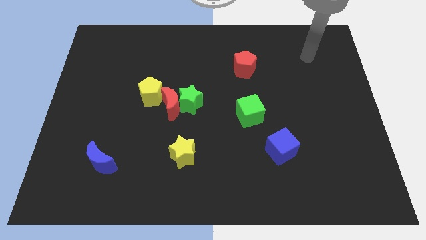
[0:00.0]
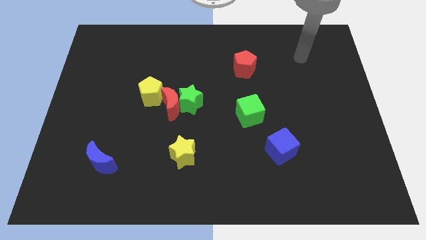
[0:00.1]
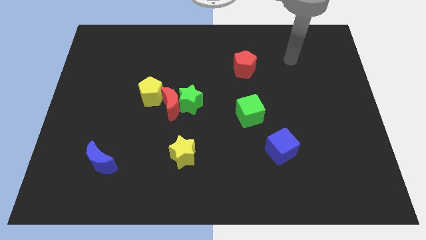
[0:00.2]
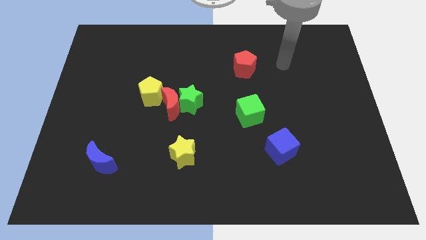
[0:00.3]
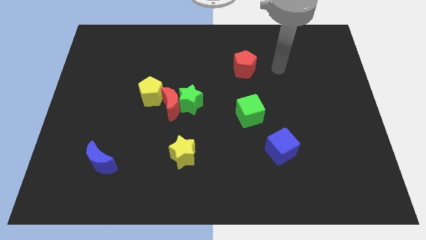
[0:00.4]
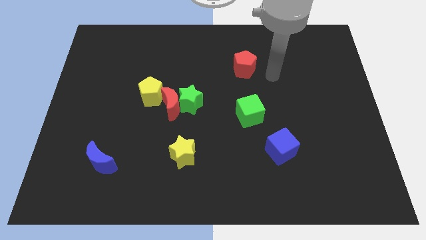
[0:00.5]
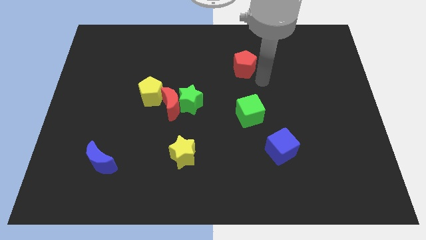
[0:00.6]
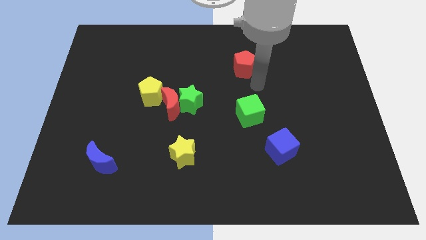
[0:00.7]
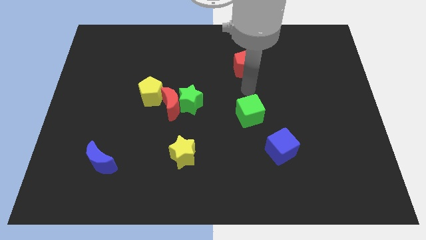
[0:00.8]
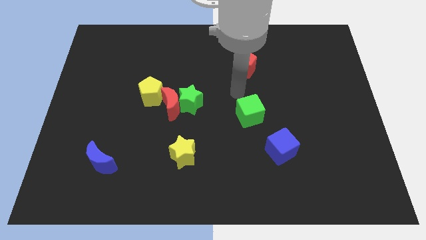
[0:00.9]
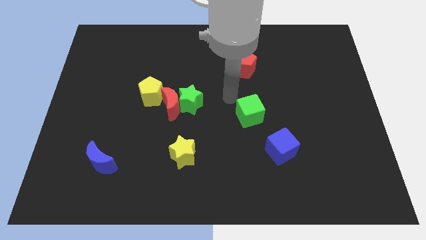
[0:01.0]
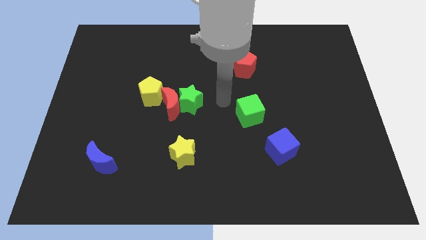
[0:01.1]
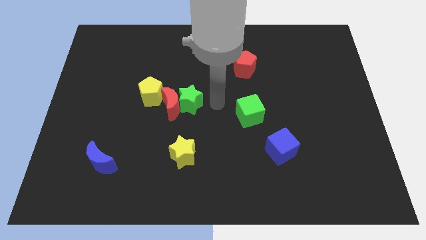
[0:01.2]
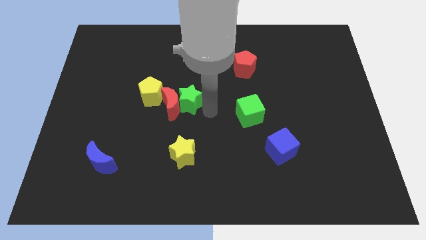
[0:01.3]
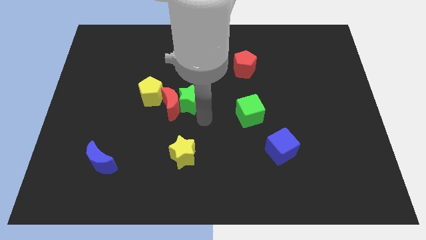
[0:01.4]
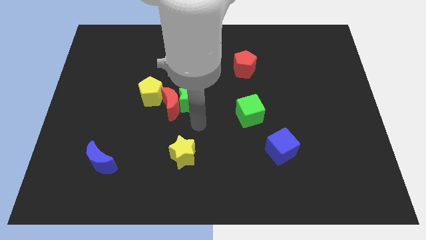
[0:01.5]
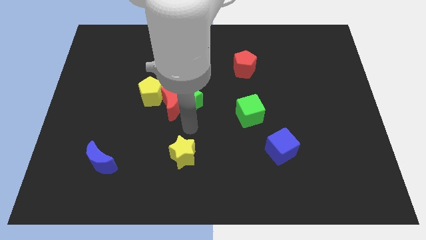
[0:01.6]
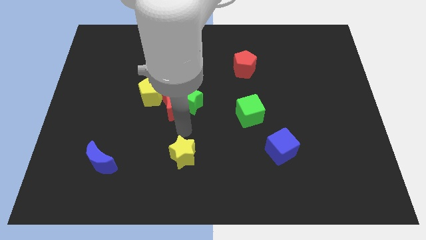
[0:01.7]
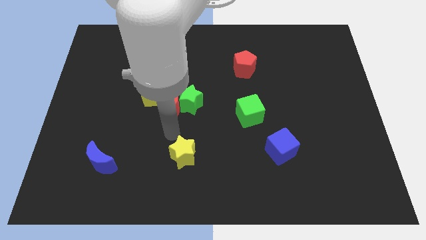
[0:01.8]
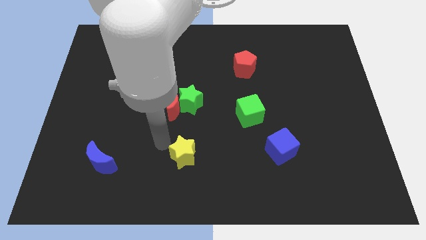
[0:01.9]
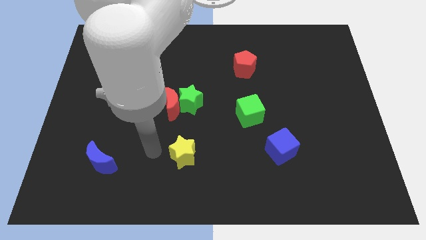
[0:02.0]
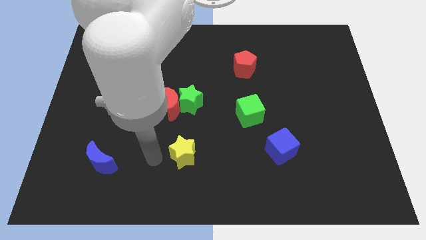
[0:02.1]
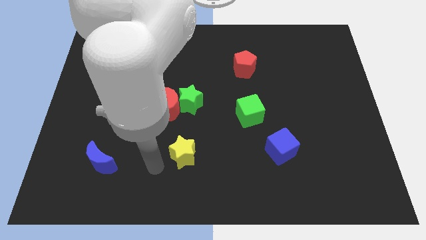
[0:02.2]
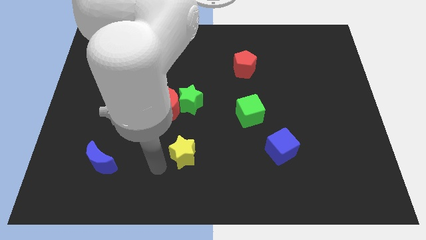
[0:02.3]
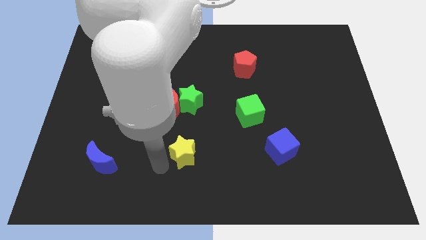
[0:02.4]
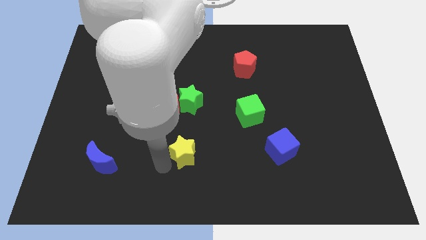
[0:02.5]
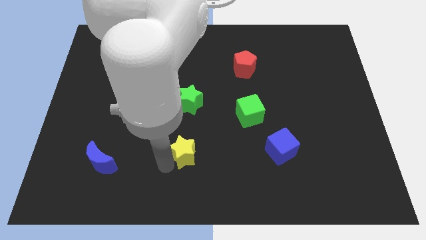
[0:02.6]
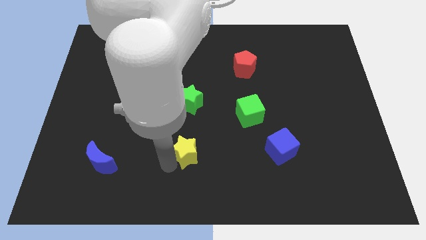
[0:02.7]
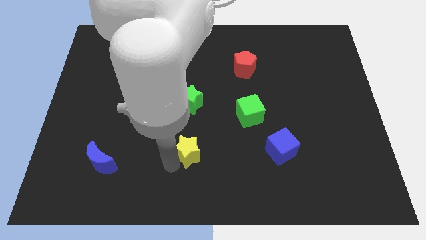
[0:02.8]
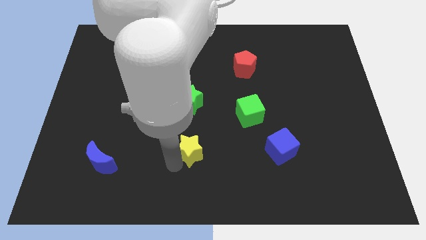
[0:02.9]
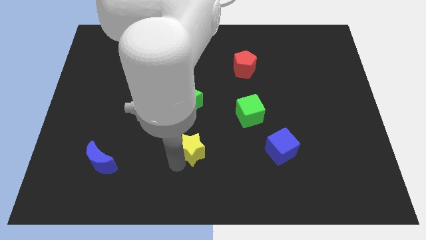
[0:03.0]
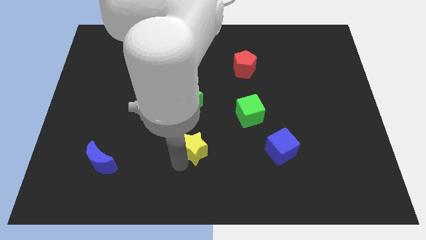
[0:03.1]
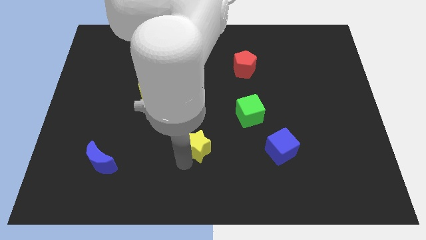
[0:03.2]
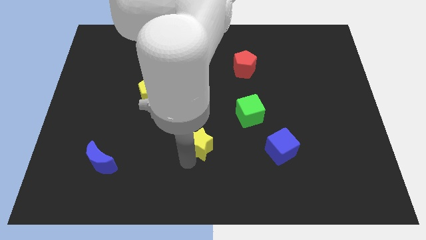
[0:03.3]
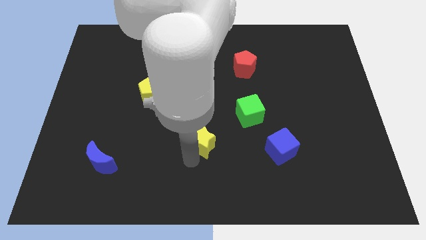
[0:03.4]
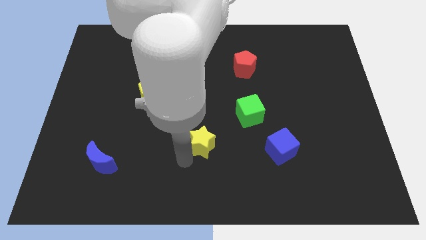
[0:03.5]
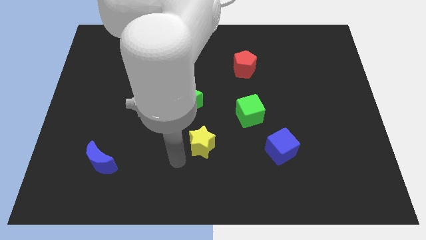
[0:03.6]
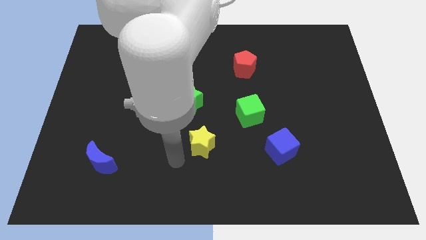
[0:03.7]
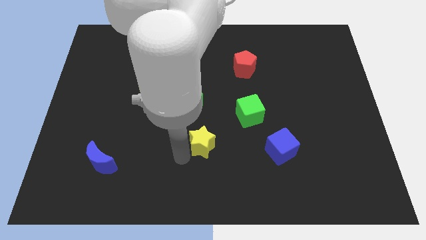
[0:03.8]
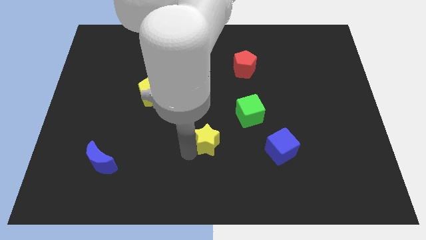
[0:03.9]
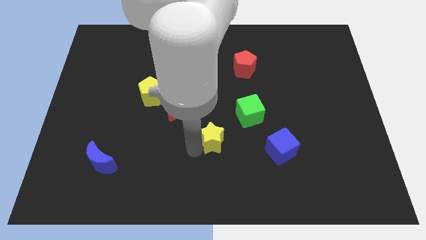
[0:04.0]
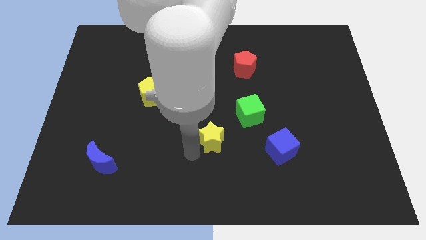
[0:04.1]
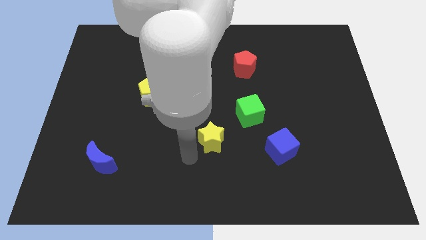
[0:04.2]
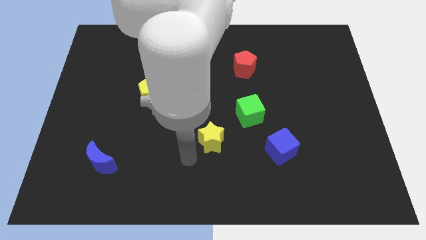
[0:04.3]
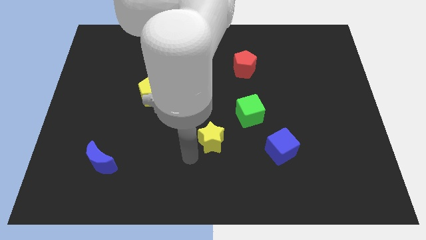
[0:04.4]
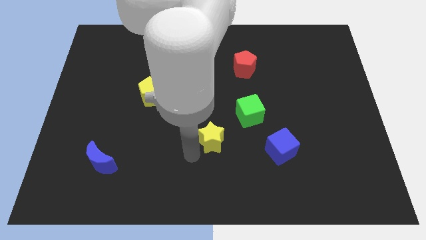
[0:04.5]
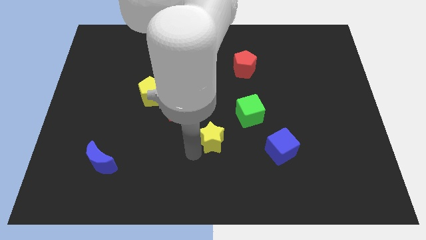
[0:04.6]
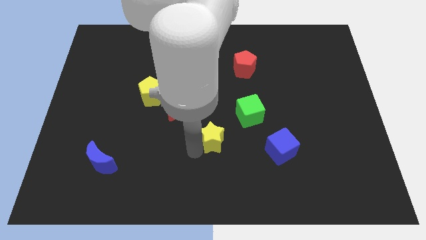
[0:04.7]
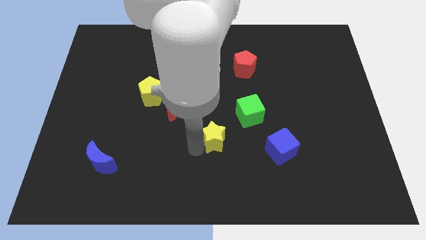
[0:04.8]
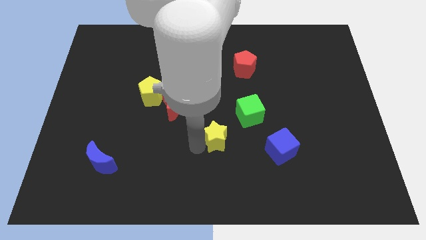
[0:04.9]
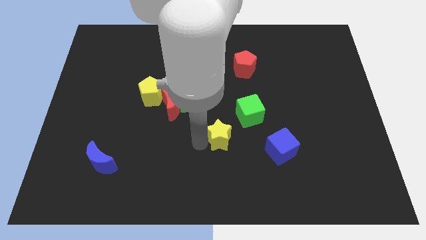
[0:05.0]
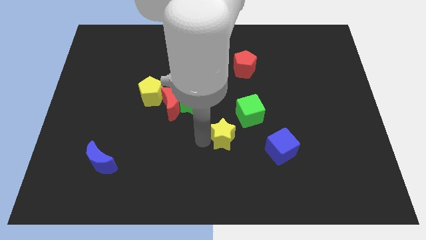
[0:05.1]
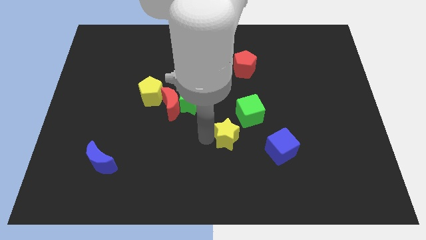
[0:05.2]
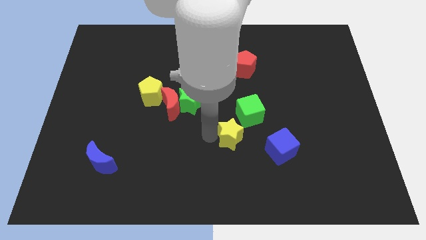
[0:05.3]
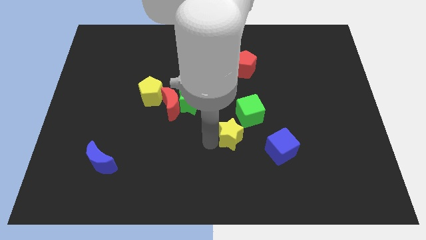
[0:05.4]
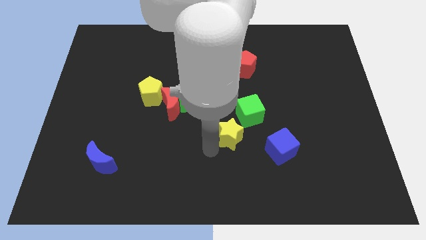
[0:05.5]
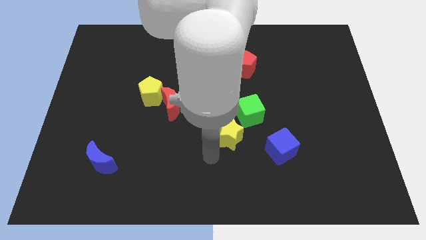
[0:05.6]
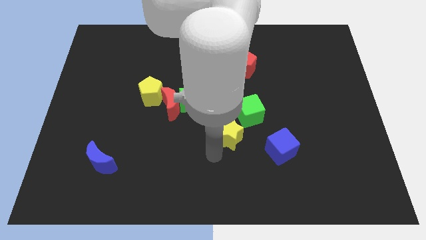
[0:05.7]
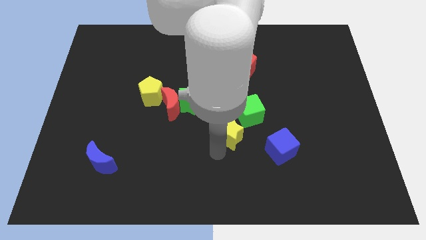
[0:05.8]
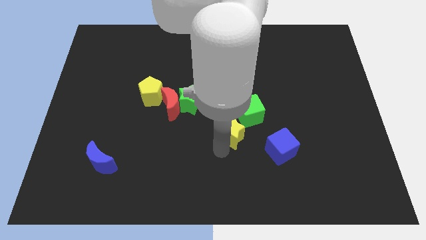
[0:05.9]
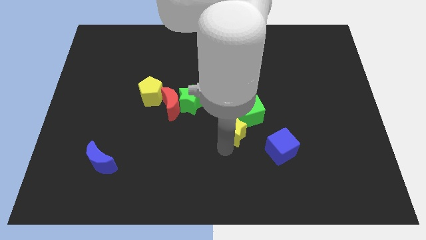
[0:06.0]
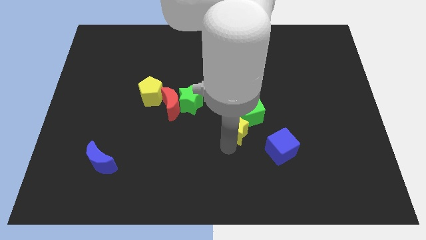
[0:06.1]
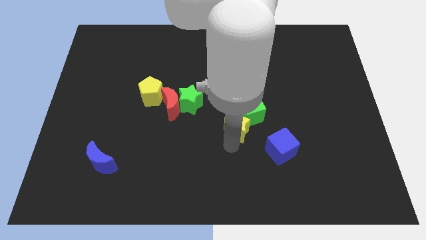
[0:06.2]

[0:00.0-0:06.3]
move the yellow star to the green cube

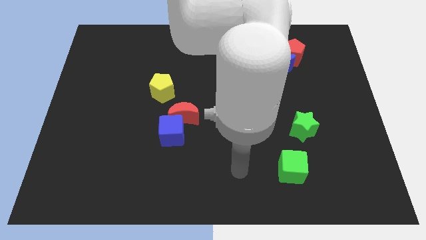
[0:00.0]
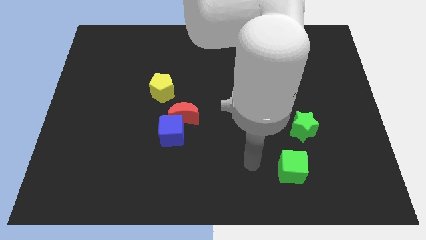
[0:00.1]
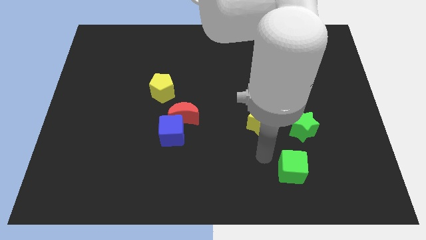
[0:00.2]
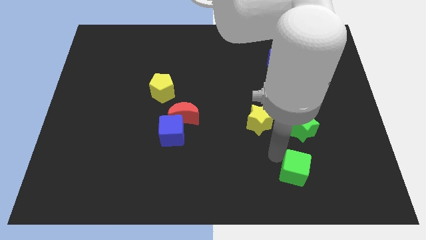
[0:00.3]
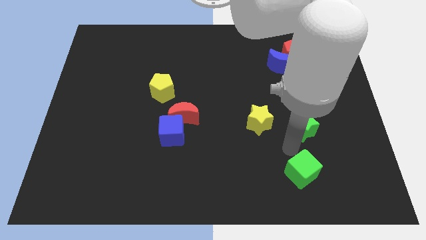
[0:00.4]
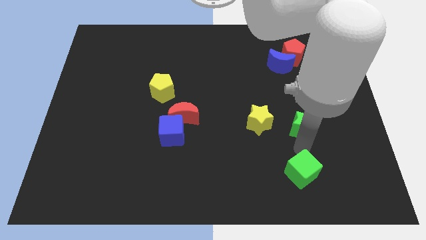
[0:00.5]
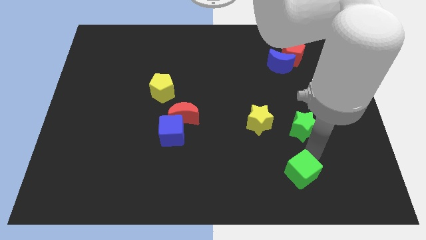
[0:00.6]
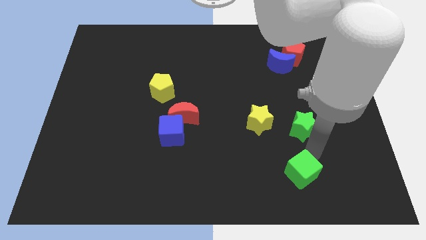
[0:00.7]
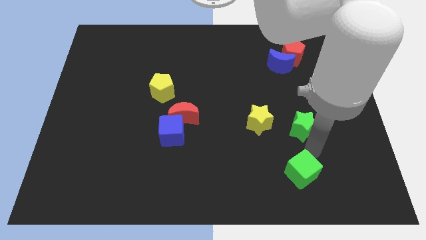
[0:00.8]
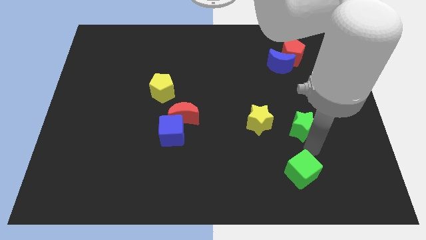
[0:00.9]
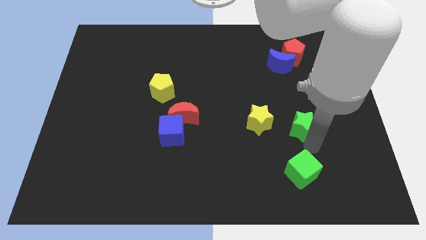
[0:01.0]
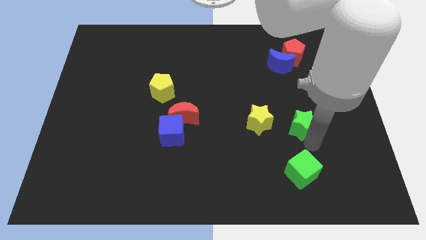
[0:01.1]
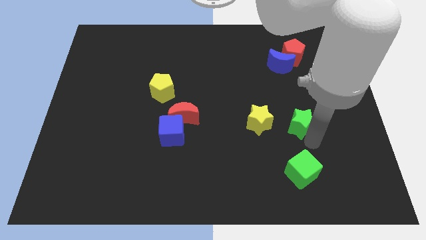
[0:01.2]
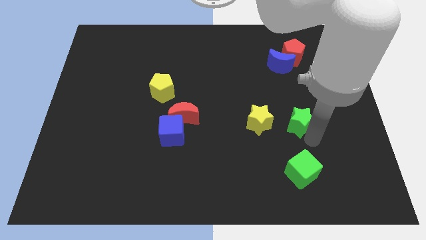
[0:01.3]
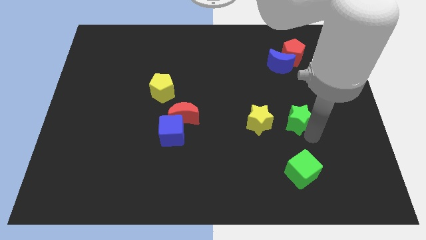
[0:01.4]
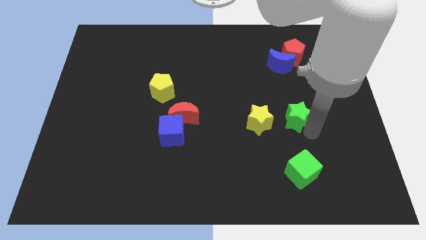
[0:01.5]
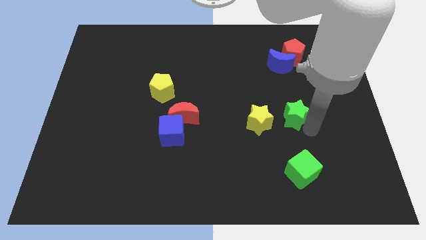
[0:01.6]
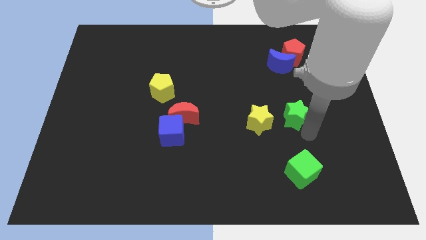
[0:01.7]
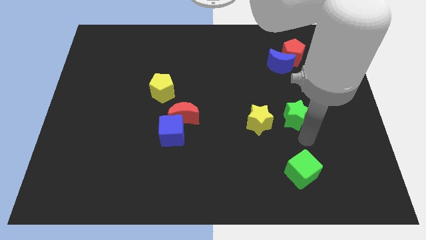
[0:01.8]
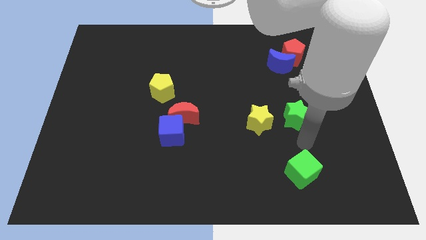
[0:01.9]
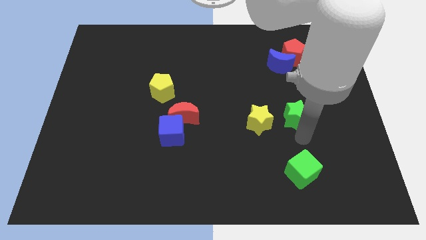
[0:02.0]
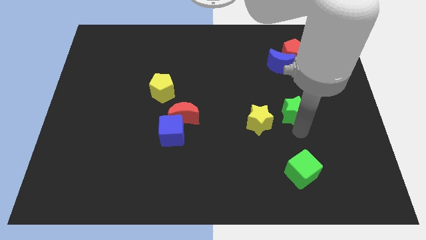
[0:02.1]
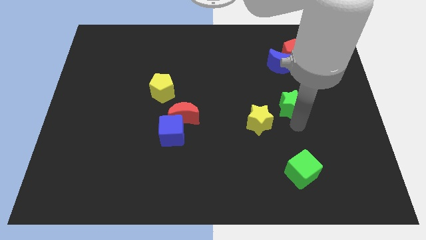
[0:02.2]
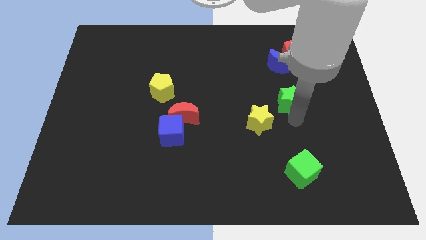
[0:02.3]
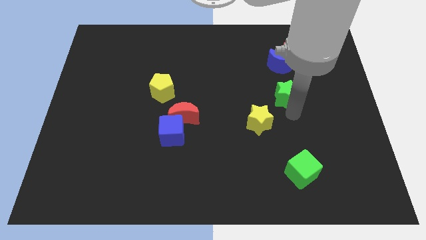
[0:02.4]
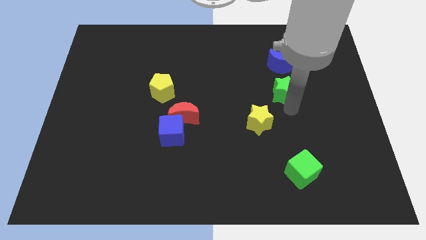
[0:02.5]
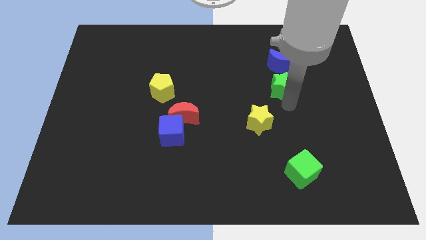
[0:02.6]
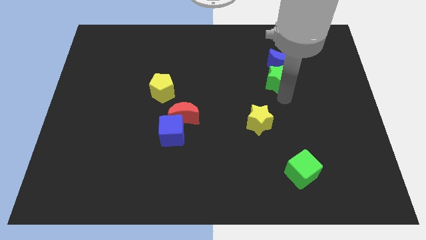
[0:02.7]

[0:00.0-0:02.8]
slide the green star to the blue moon
